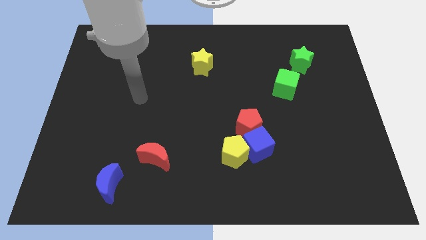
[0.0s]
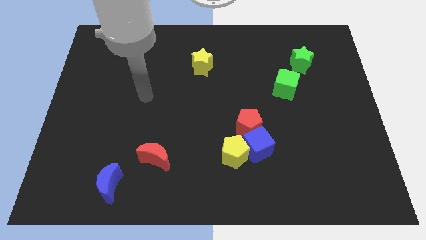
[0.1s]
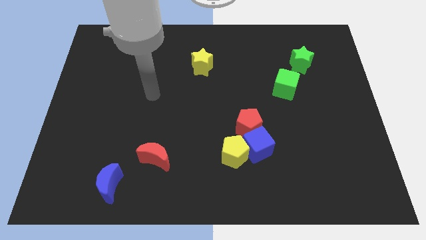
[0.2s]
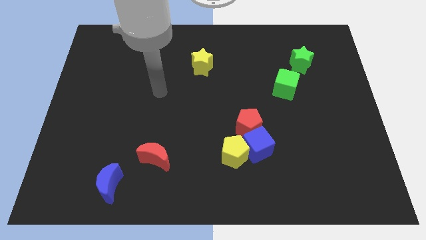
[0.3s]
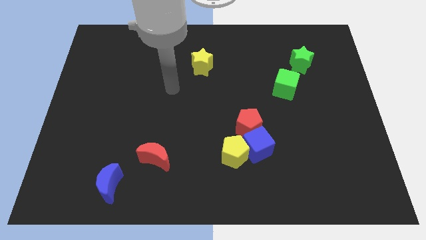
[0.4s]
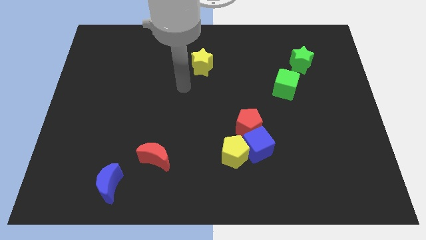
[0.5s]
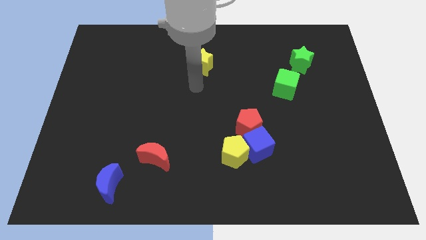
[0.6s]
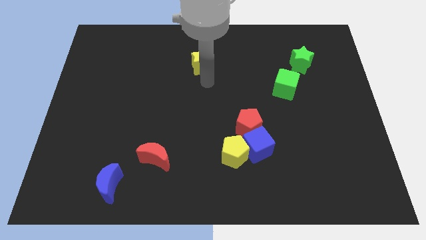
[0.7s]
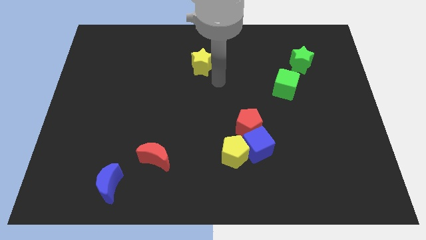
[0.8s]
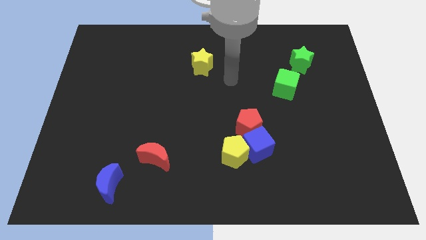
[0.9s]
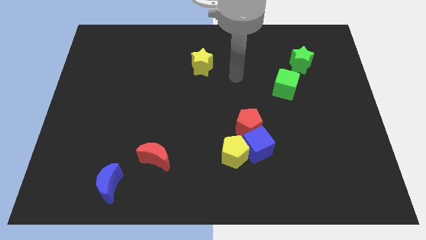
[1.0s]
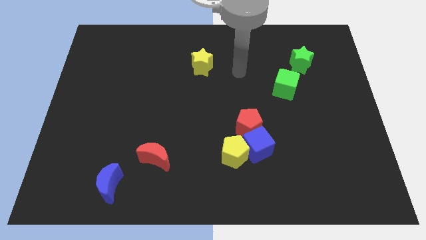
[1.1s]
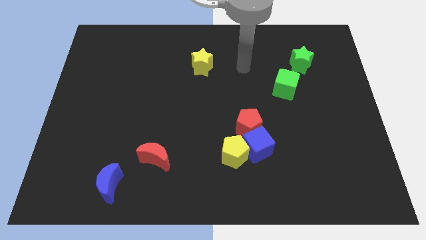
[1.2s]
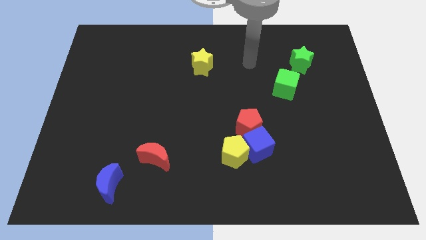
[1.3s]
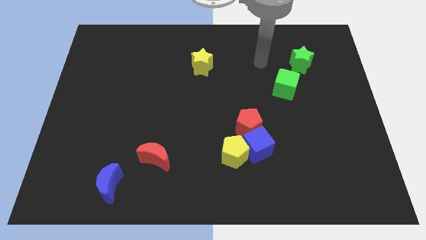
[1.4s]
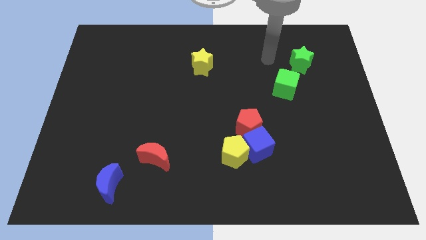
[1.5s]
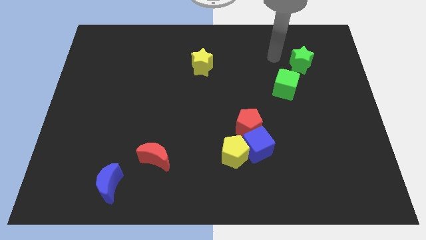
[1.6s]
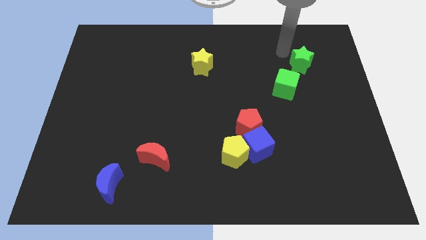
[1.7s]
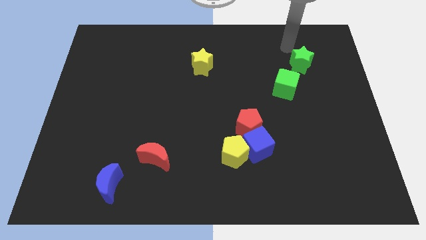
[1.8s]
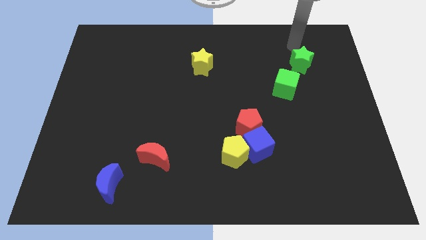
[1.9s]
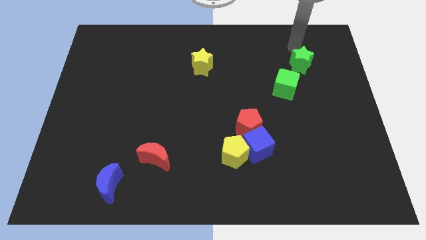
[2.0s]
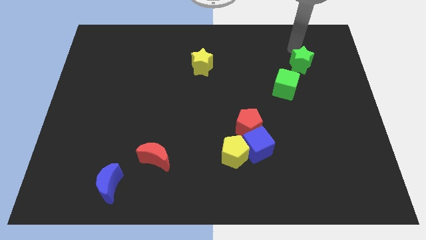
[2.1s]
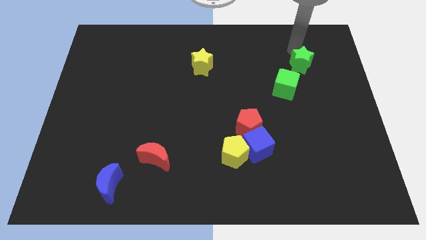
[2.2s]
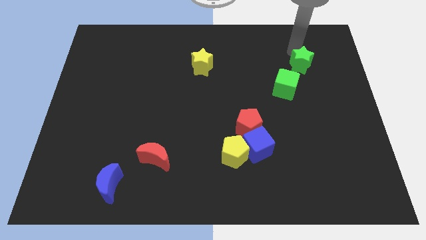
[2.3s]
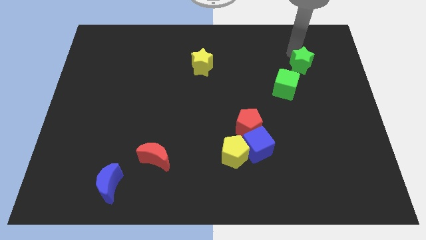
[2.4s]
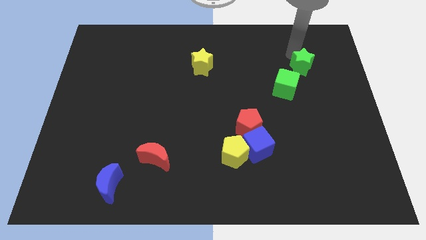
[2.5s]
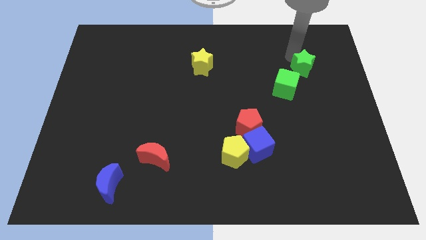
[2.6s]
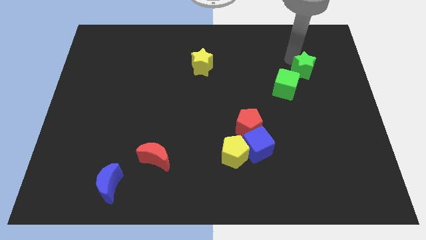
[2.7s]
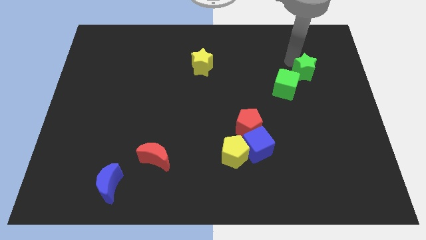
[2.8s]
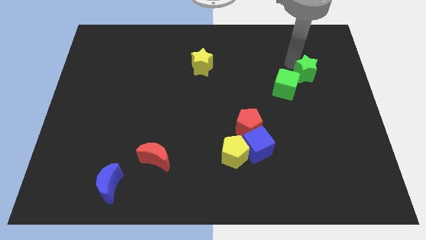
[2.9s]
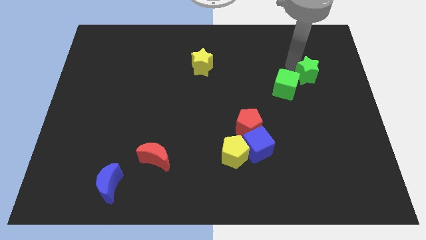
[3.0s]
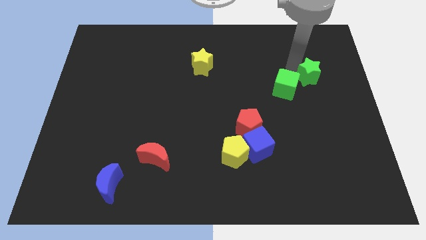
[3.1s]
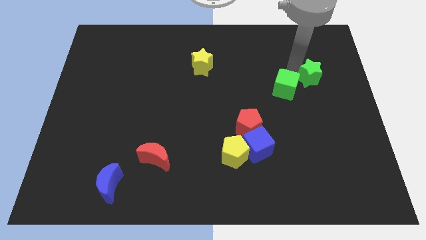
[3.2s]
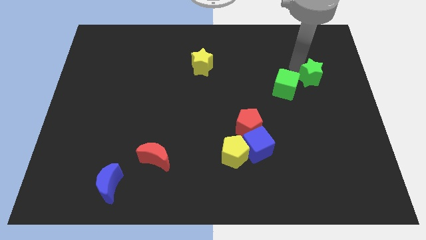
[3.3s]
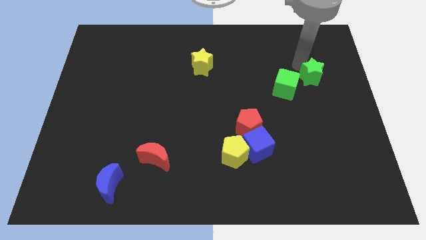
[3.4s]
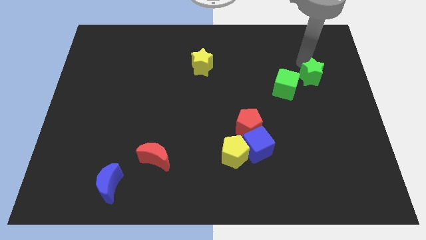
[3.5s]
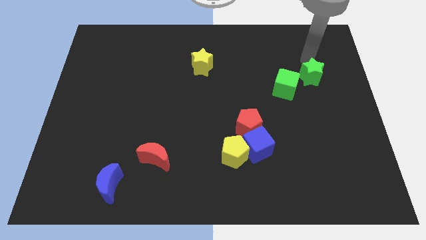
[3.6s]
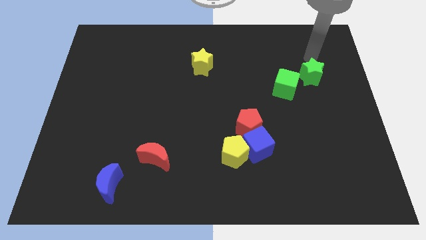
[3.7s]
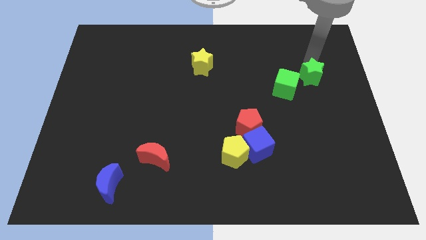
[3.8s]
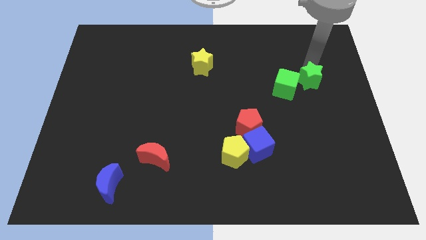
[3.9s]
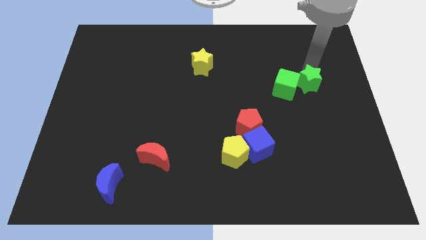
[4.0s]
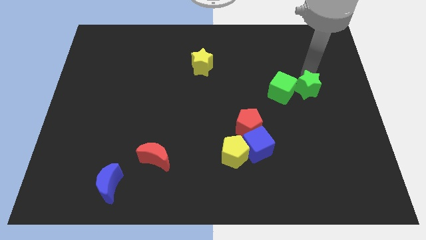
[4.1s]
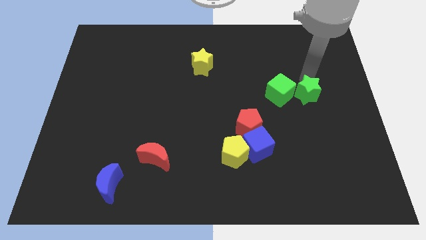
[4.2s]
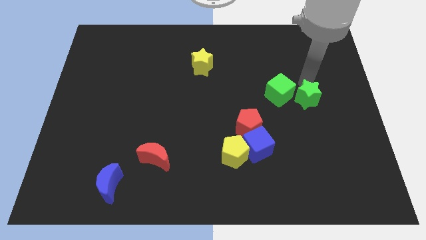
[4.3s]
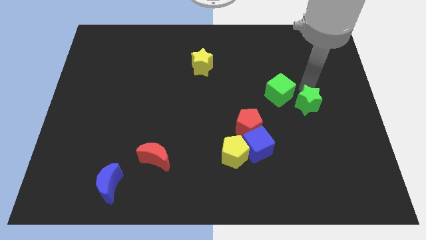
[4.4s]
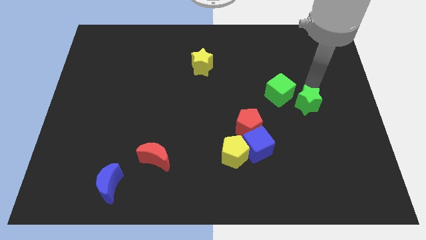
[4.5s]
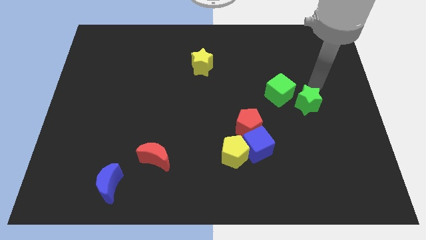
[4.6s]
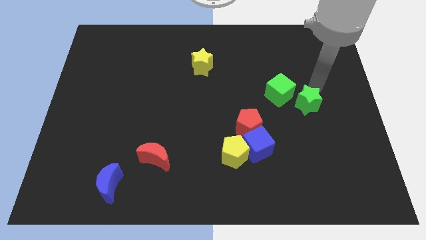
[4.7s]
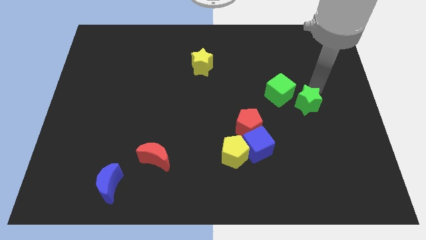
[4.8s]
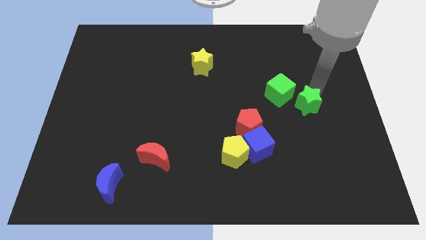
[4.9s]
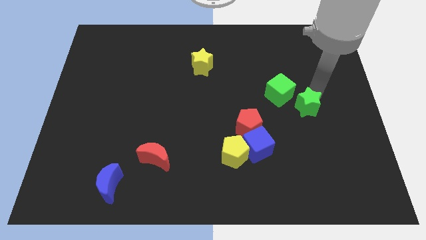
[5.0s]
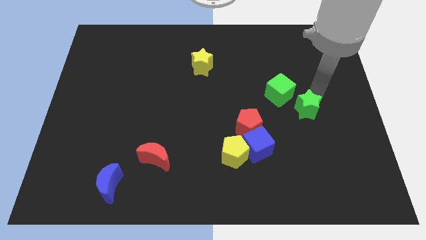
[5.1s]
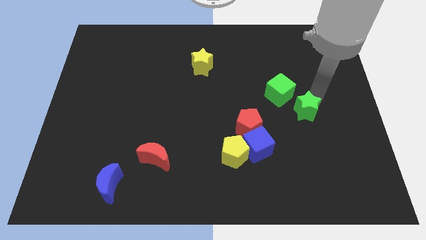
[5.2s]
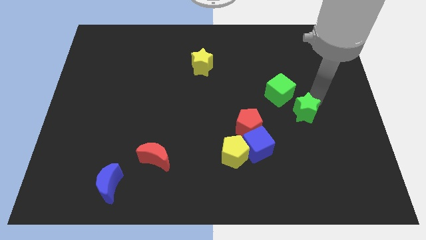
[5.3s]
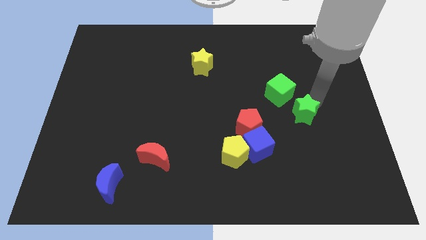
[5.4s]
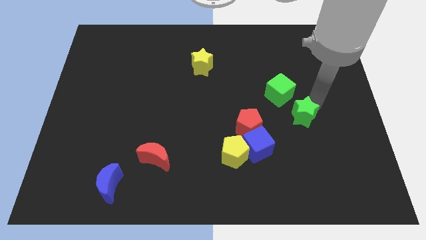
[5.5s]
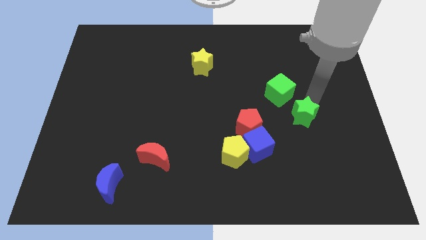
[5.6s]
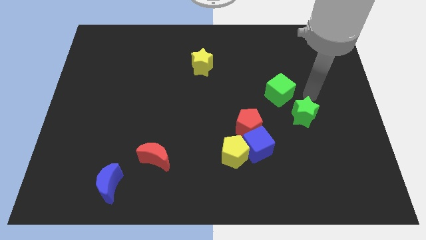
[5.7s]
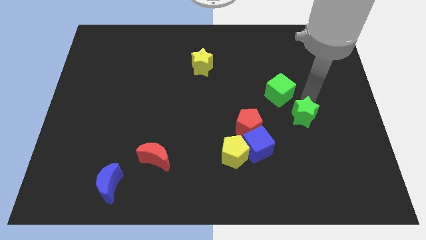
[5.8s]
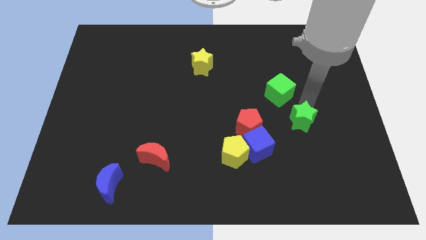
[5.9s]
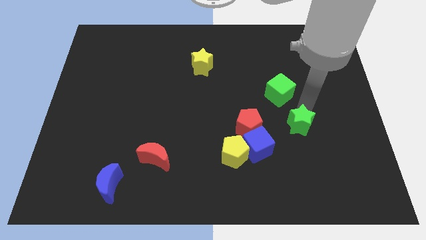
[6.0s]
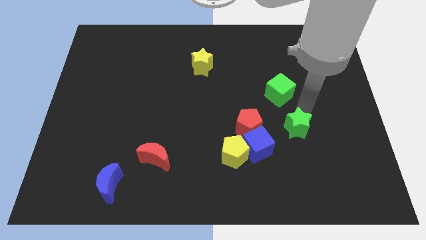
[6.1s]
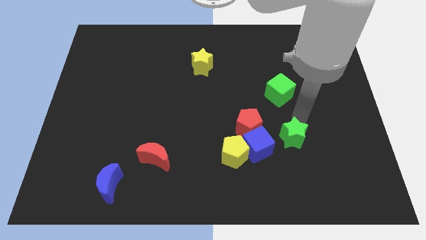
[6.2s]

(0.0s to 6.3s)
push the green star right of the yellow pentagon

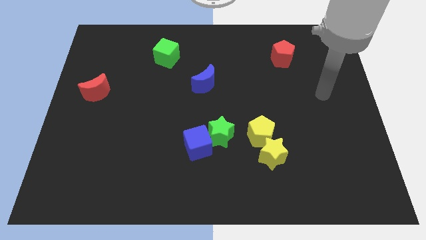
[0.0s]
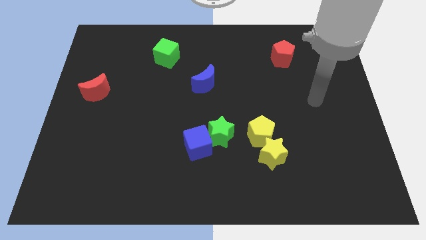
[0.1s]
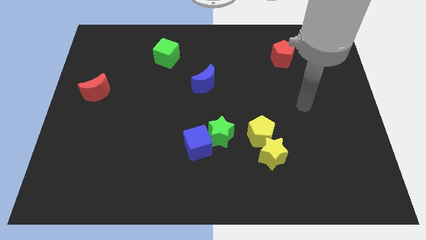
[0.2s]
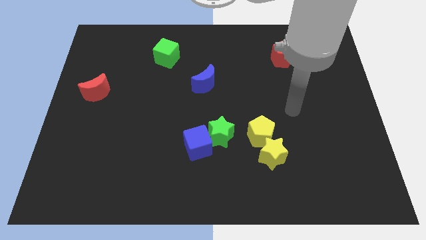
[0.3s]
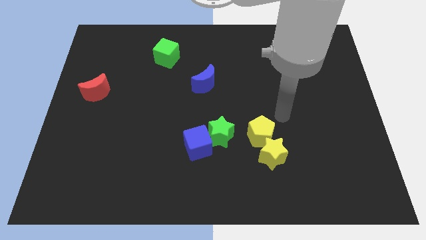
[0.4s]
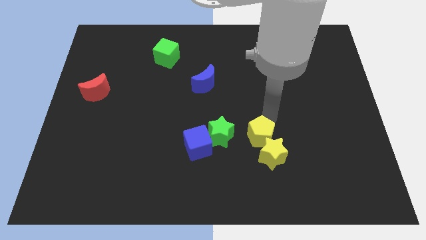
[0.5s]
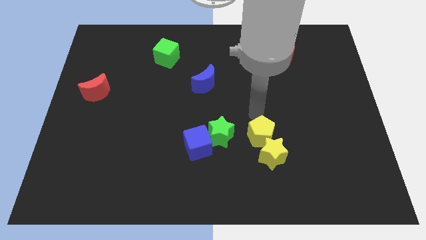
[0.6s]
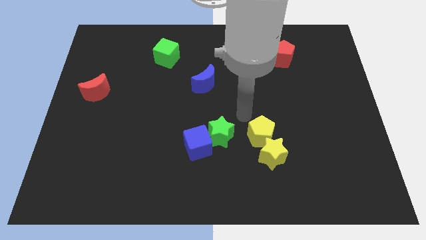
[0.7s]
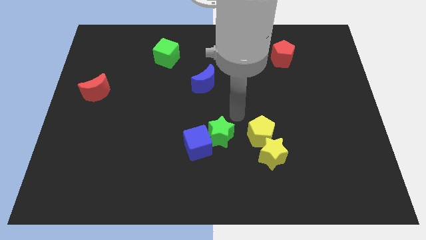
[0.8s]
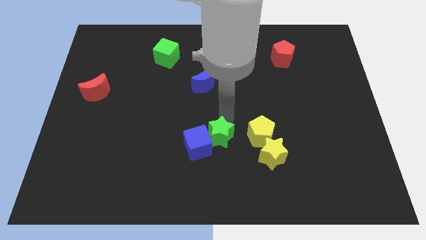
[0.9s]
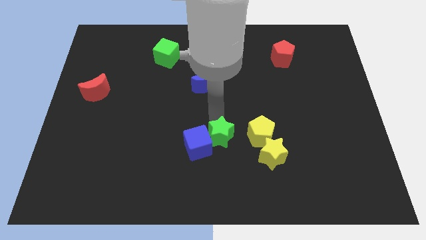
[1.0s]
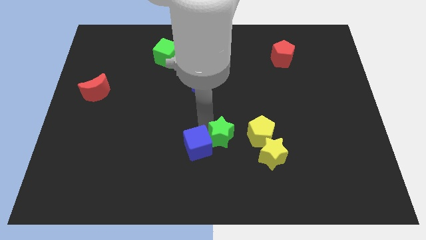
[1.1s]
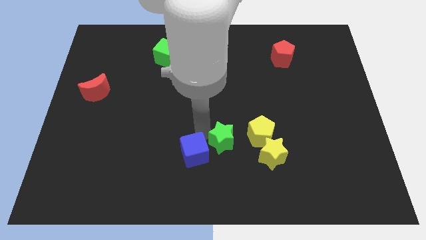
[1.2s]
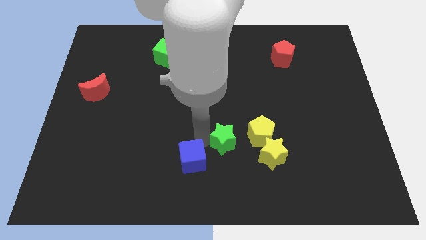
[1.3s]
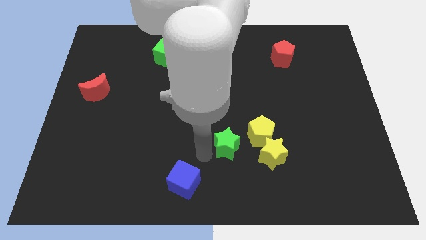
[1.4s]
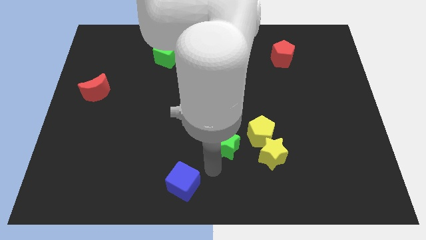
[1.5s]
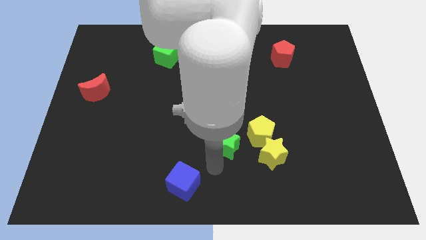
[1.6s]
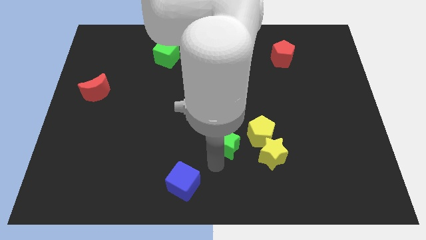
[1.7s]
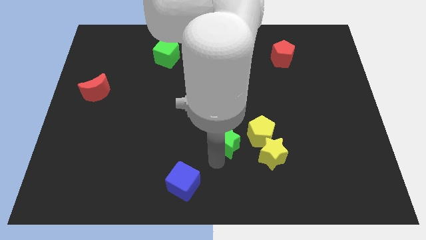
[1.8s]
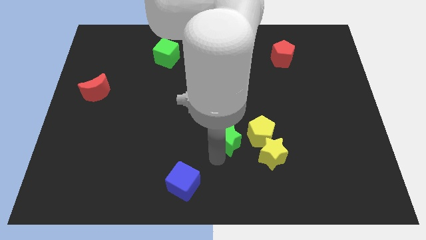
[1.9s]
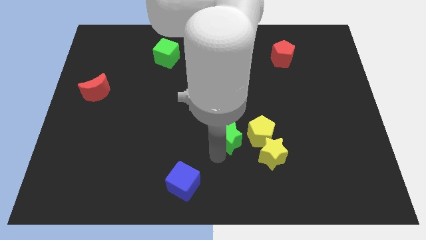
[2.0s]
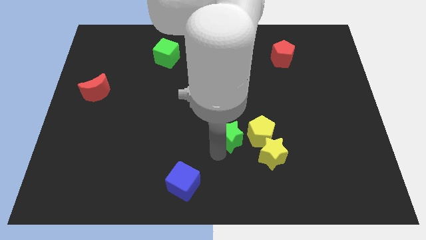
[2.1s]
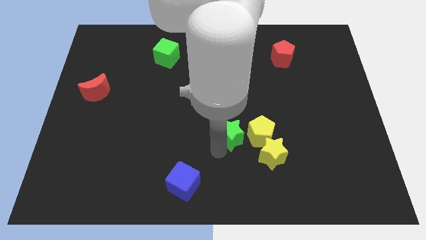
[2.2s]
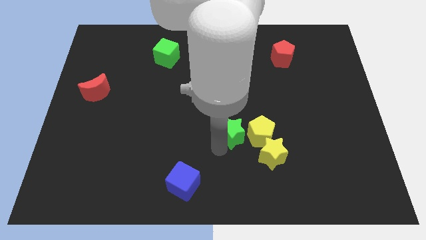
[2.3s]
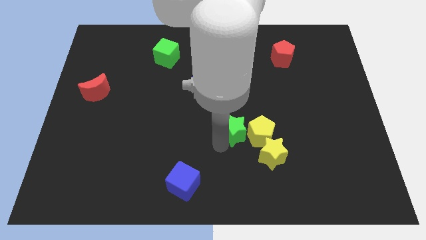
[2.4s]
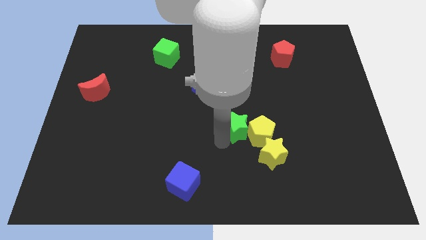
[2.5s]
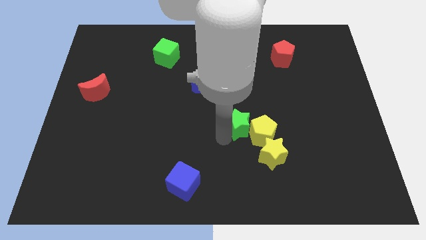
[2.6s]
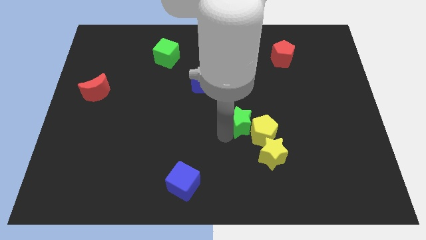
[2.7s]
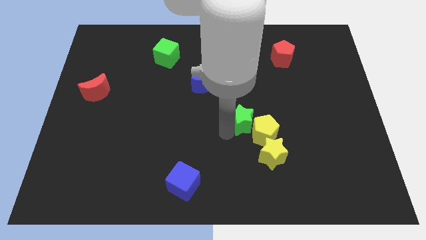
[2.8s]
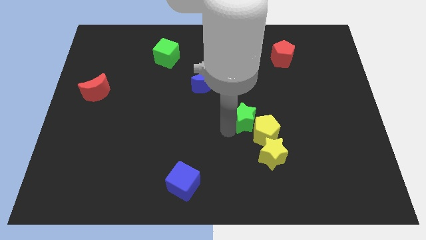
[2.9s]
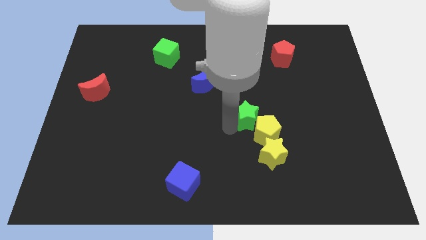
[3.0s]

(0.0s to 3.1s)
put the green star to the top side of the yellow star
